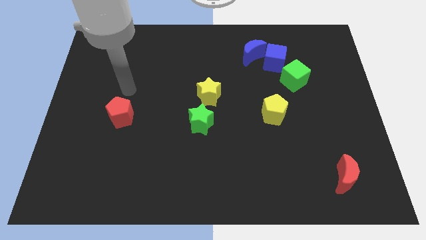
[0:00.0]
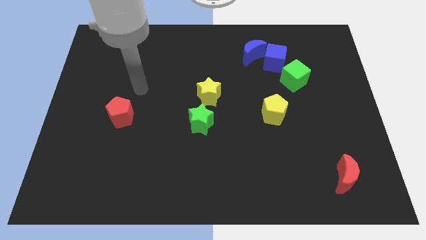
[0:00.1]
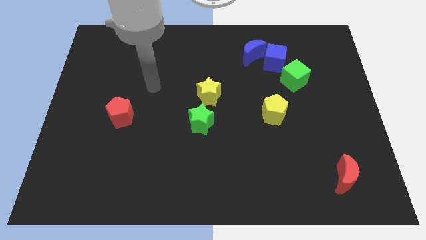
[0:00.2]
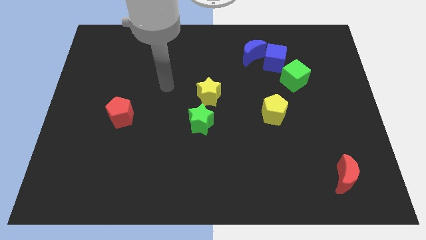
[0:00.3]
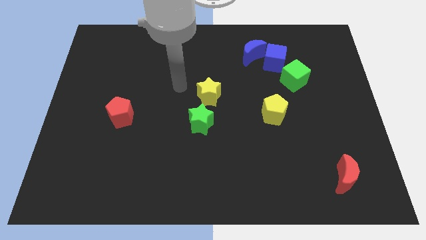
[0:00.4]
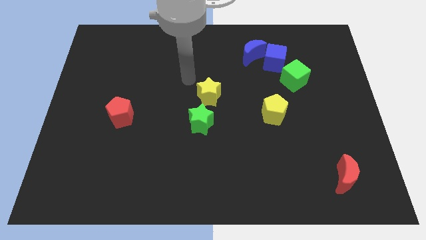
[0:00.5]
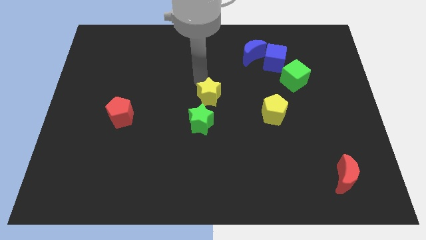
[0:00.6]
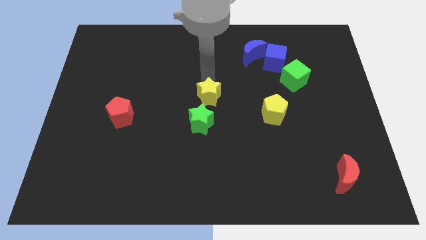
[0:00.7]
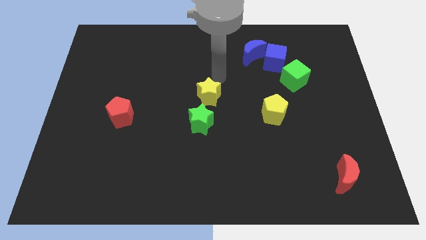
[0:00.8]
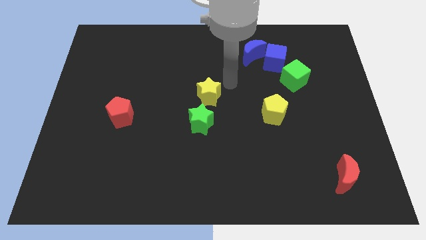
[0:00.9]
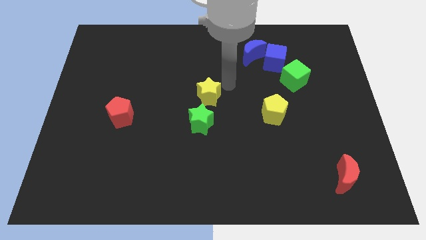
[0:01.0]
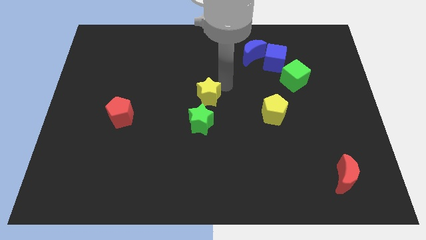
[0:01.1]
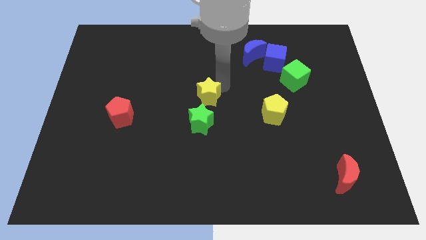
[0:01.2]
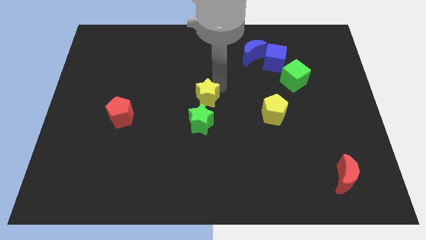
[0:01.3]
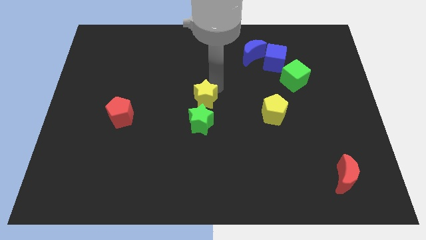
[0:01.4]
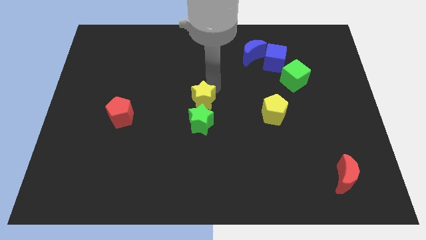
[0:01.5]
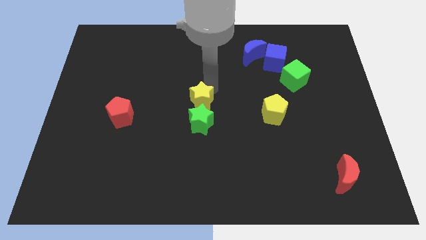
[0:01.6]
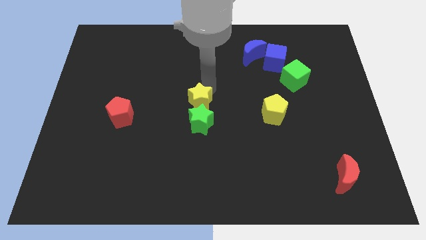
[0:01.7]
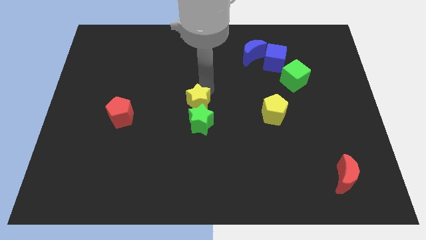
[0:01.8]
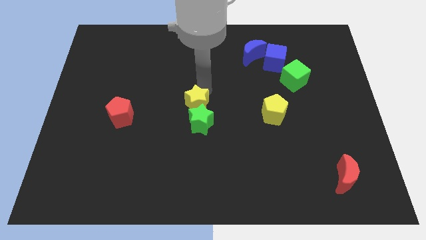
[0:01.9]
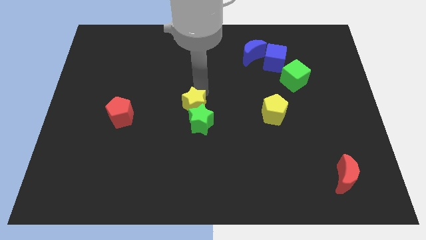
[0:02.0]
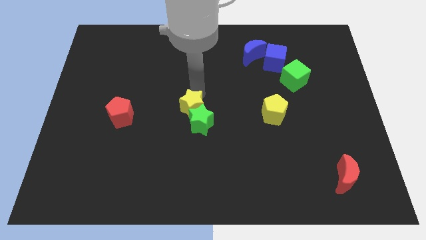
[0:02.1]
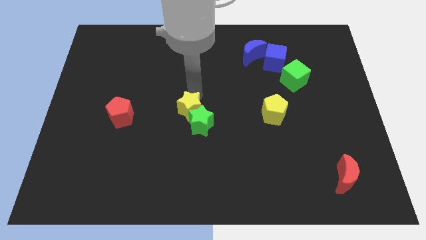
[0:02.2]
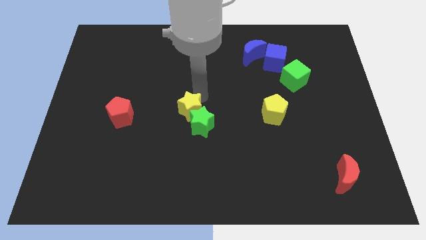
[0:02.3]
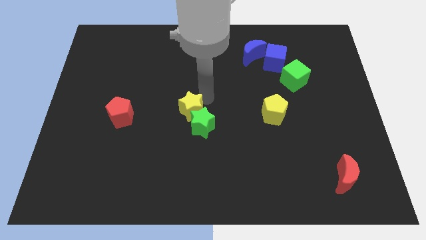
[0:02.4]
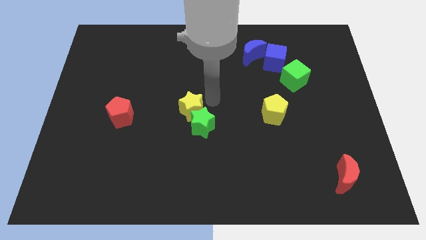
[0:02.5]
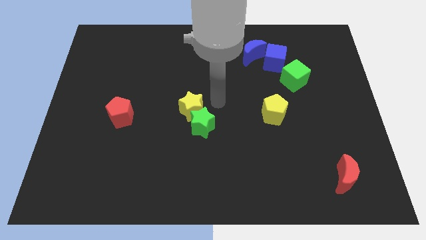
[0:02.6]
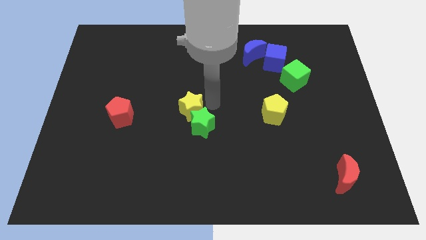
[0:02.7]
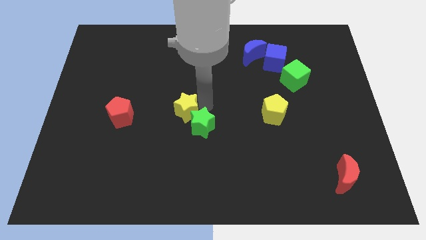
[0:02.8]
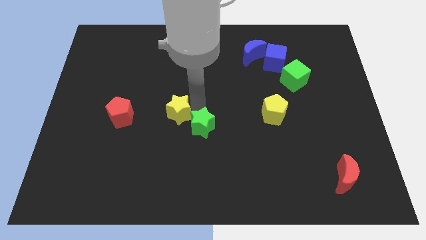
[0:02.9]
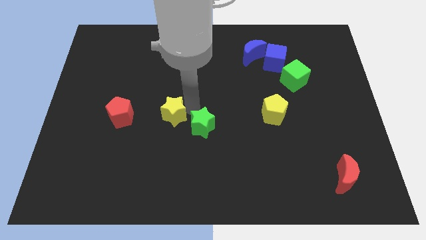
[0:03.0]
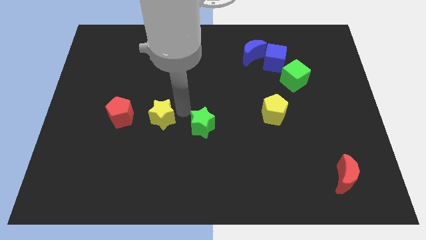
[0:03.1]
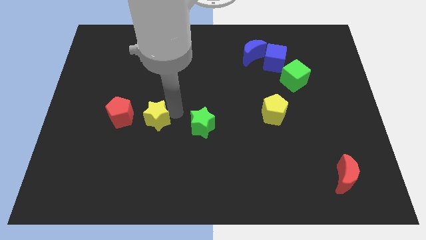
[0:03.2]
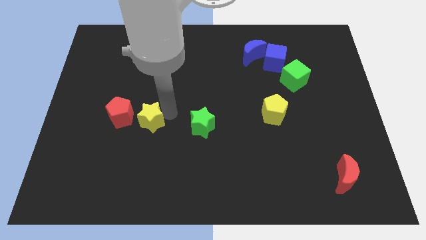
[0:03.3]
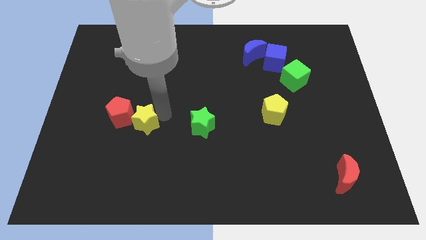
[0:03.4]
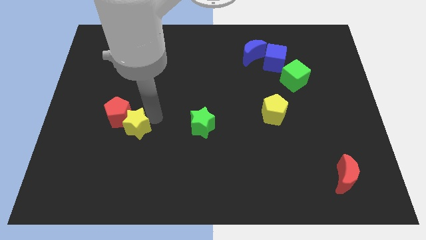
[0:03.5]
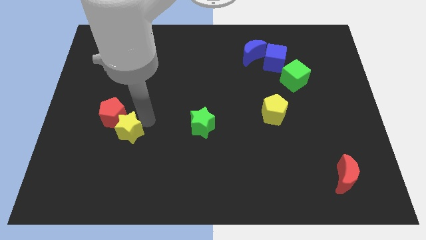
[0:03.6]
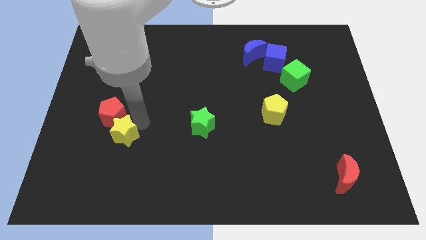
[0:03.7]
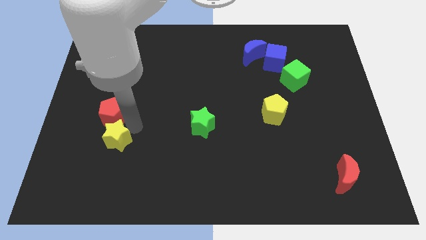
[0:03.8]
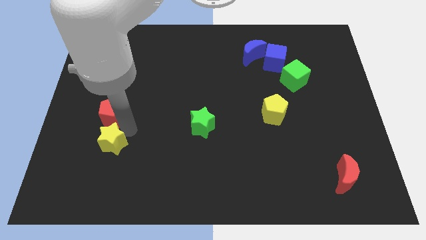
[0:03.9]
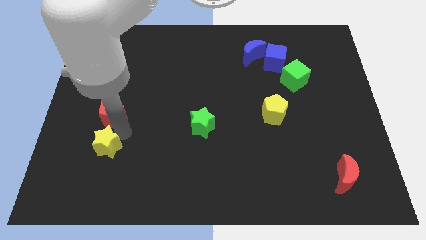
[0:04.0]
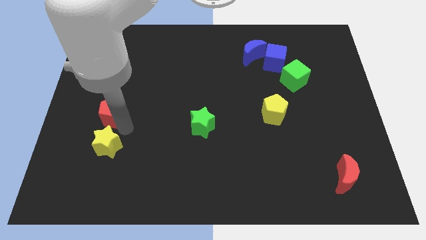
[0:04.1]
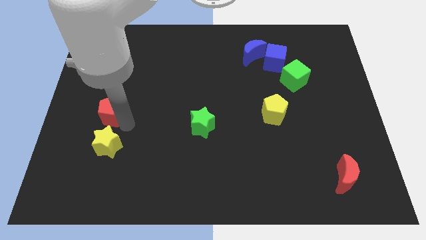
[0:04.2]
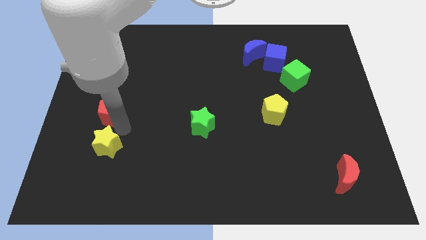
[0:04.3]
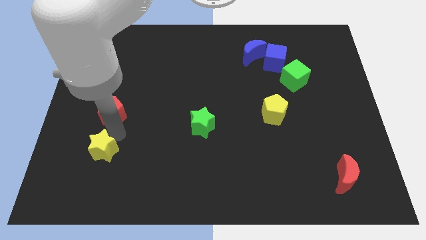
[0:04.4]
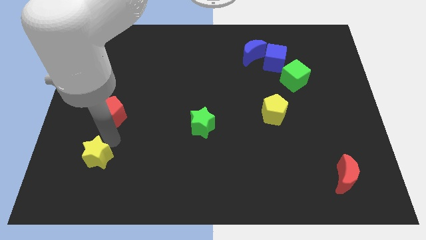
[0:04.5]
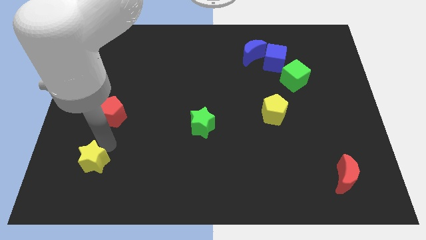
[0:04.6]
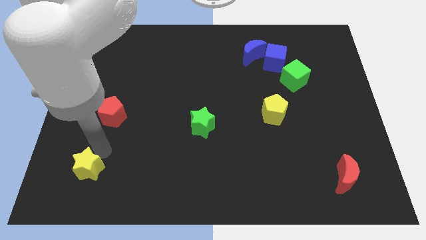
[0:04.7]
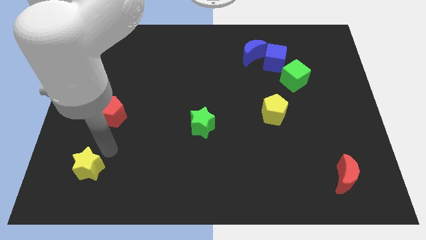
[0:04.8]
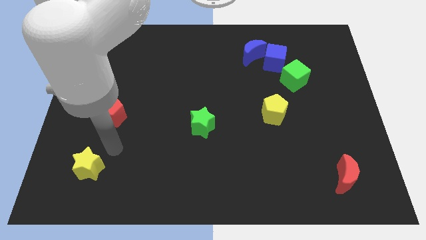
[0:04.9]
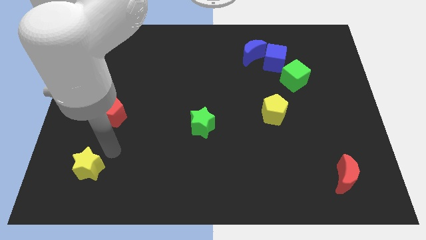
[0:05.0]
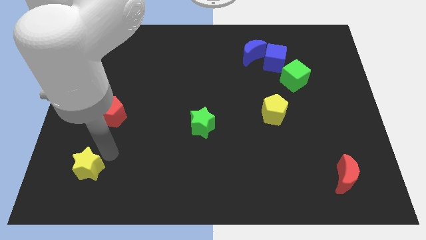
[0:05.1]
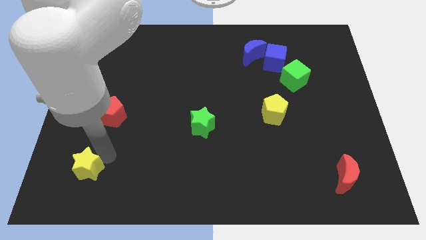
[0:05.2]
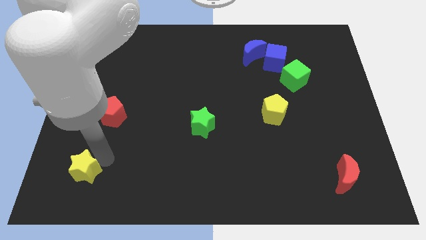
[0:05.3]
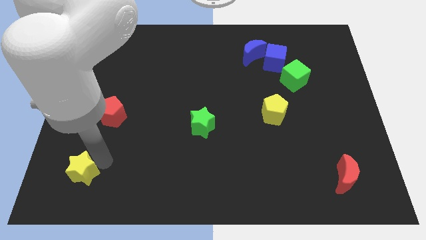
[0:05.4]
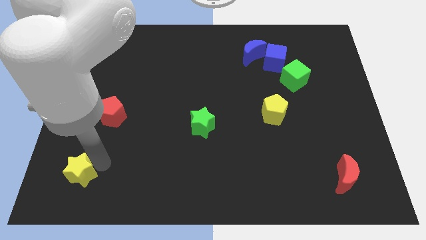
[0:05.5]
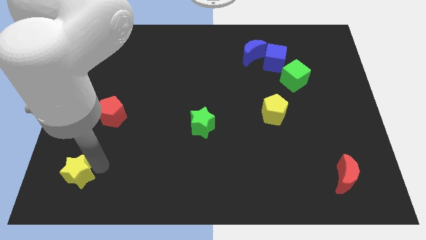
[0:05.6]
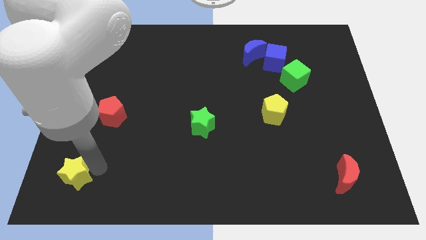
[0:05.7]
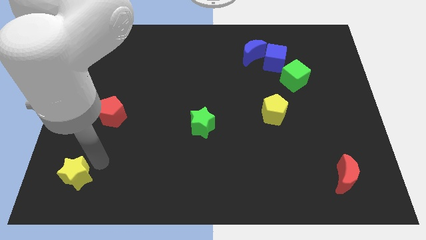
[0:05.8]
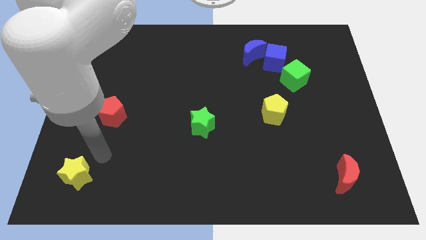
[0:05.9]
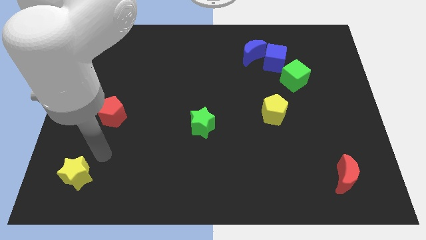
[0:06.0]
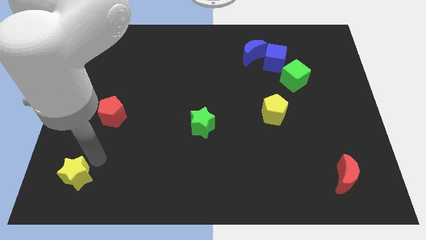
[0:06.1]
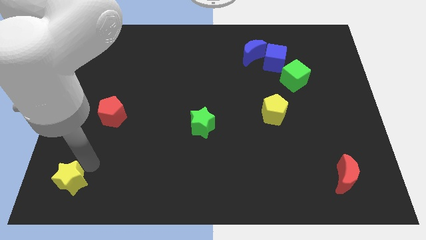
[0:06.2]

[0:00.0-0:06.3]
push the yellow star to the bottom left of the board

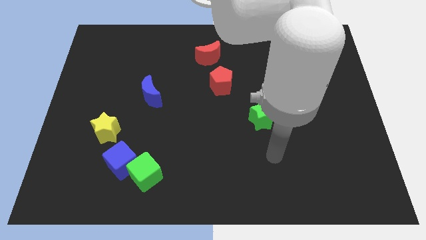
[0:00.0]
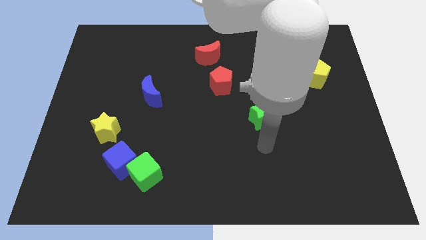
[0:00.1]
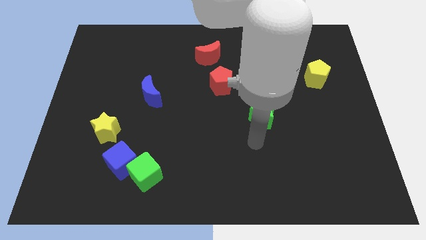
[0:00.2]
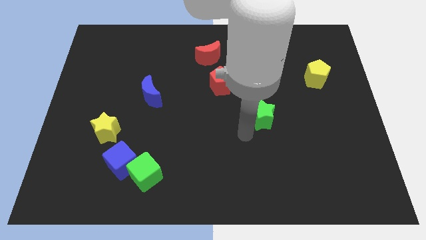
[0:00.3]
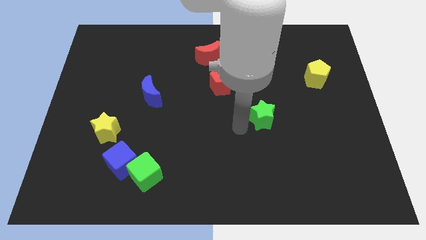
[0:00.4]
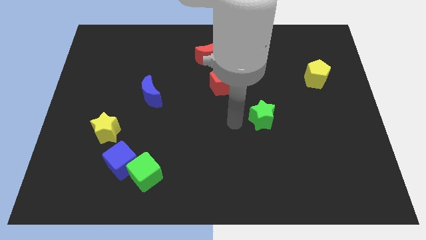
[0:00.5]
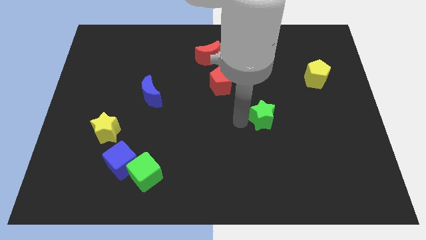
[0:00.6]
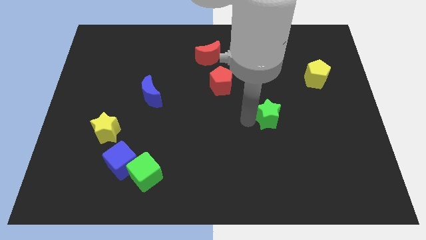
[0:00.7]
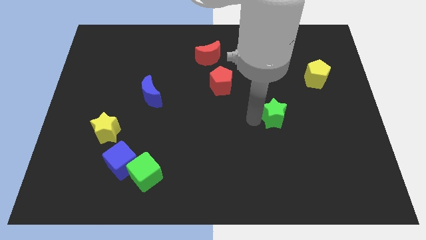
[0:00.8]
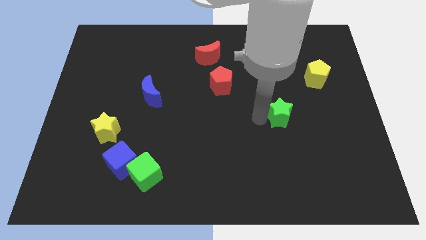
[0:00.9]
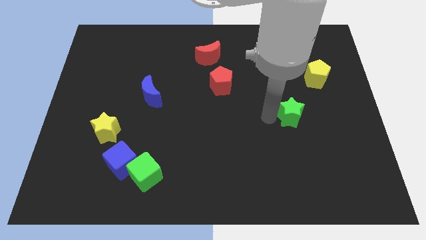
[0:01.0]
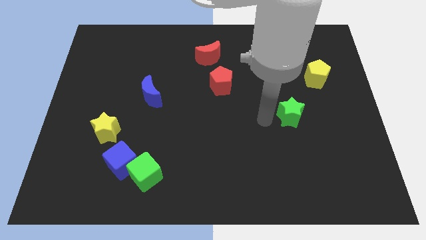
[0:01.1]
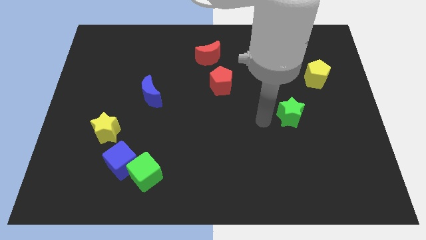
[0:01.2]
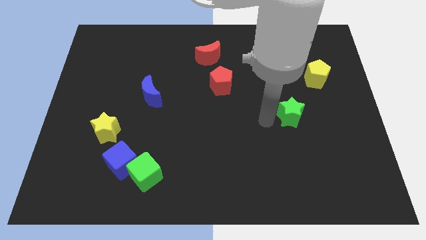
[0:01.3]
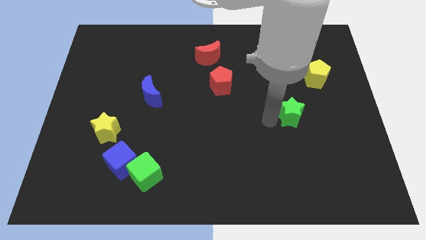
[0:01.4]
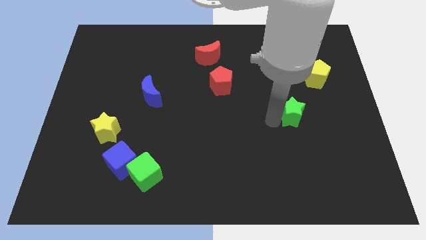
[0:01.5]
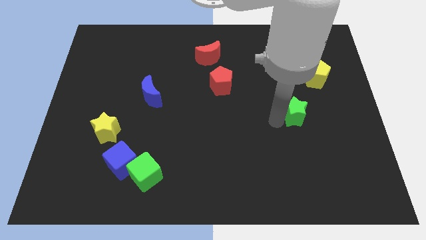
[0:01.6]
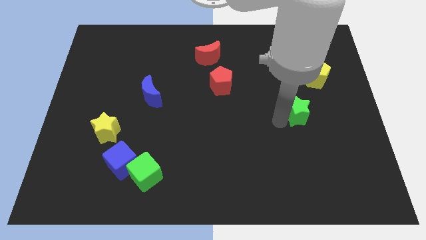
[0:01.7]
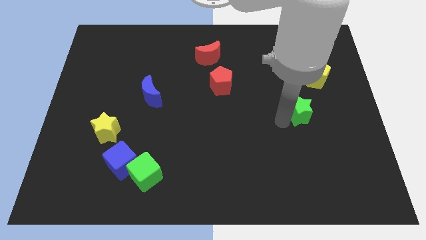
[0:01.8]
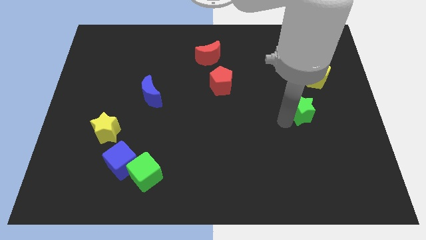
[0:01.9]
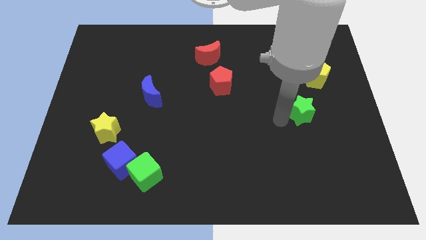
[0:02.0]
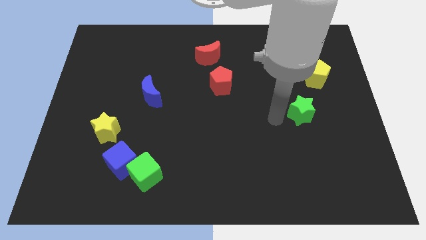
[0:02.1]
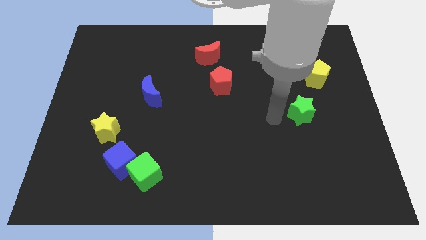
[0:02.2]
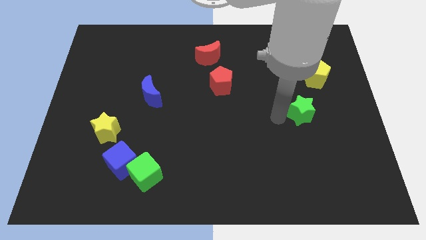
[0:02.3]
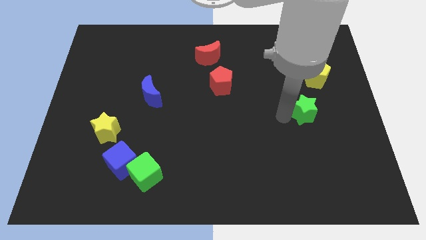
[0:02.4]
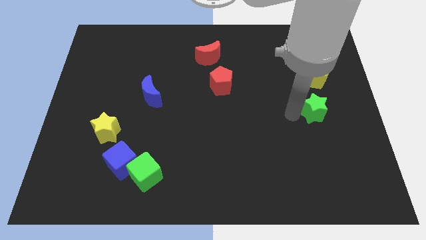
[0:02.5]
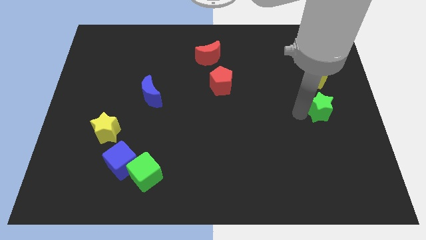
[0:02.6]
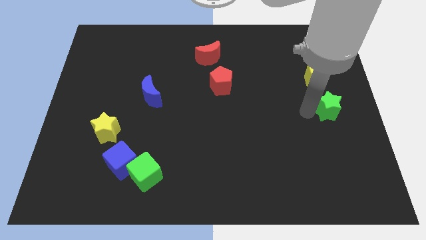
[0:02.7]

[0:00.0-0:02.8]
slide the green star to the right side of the board
